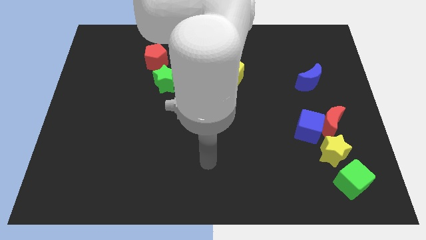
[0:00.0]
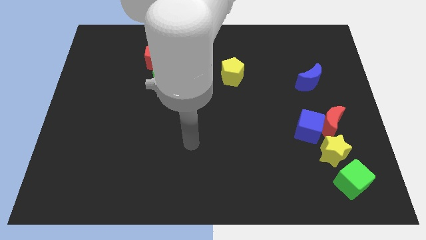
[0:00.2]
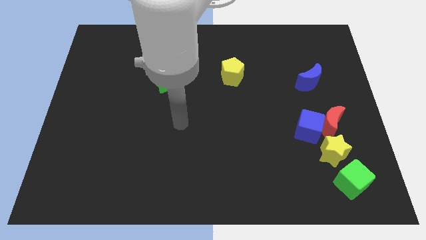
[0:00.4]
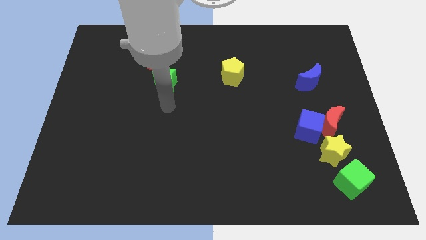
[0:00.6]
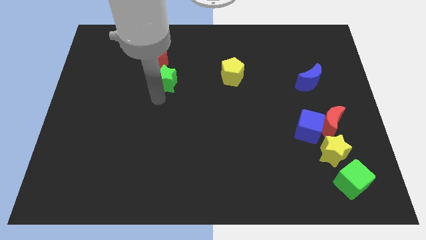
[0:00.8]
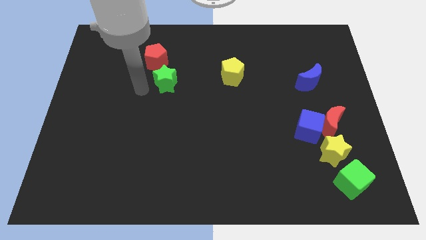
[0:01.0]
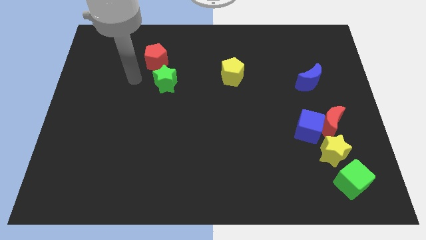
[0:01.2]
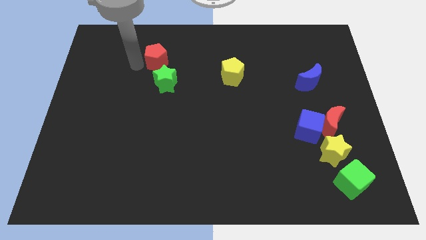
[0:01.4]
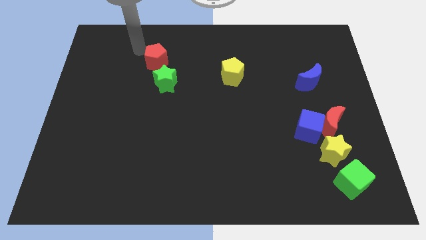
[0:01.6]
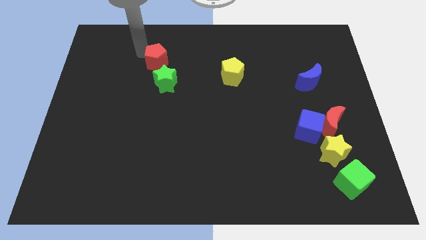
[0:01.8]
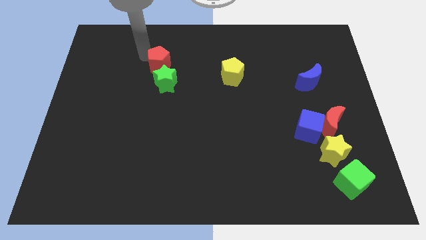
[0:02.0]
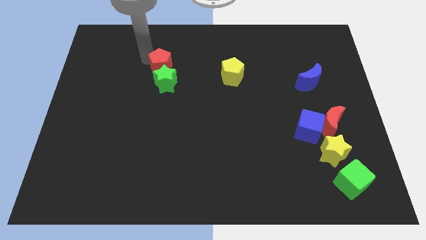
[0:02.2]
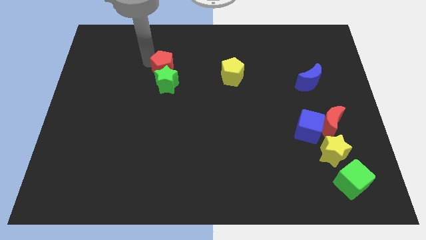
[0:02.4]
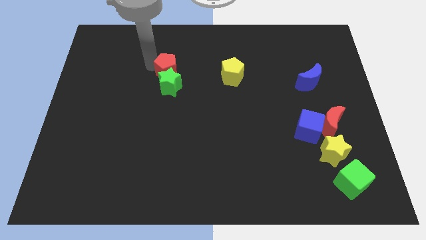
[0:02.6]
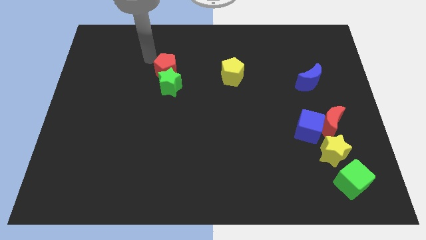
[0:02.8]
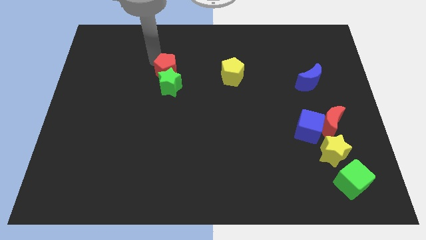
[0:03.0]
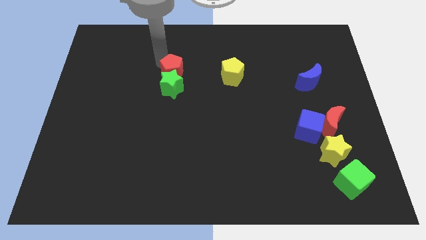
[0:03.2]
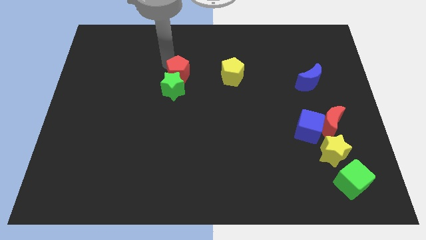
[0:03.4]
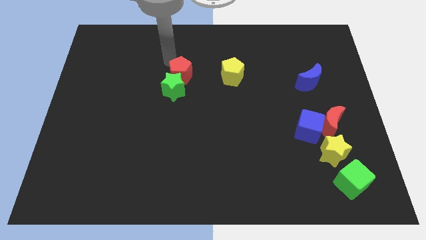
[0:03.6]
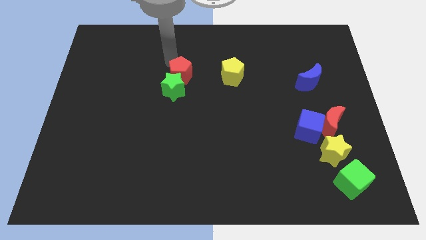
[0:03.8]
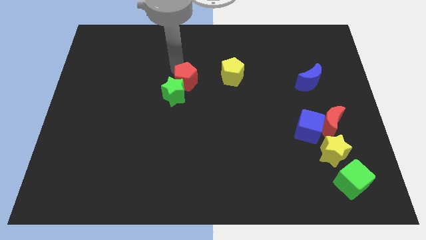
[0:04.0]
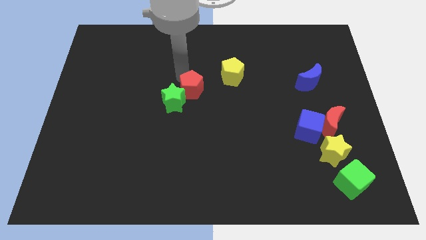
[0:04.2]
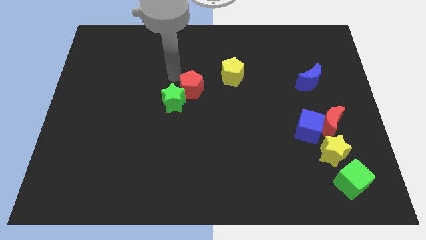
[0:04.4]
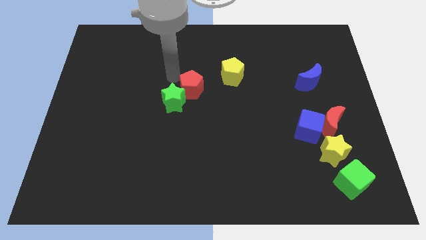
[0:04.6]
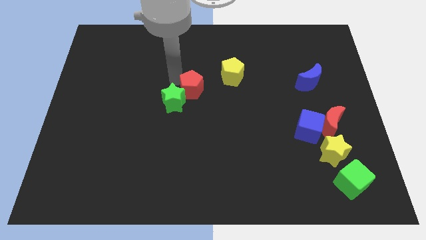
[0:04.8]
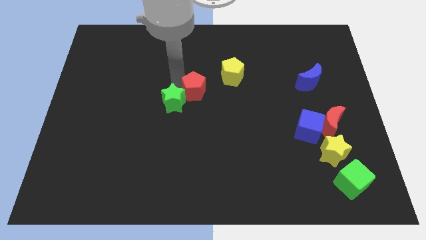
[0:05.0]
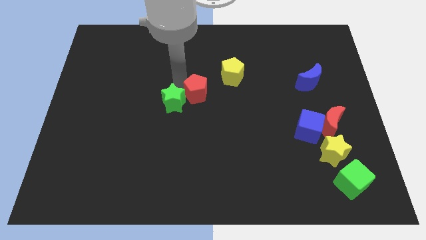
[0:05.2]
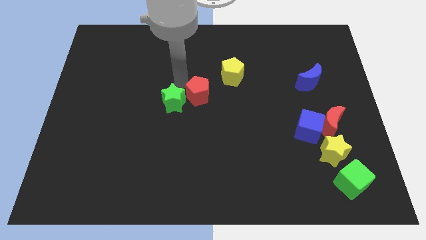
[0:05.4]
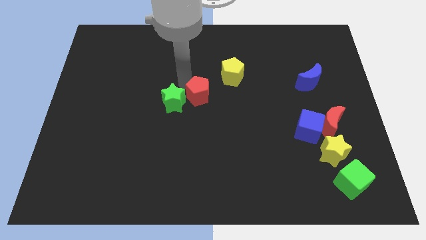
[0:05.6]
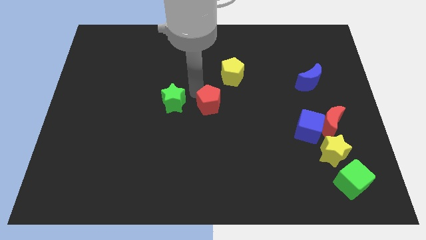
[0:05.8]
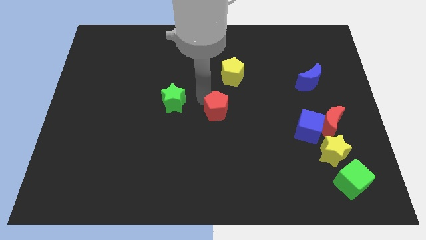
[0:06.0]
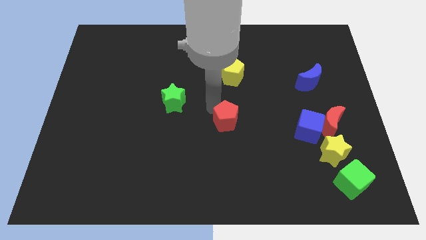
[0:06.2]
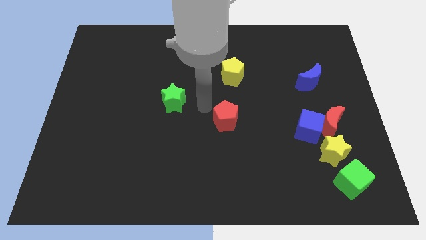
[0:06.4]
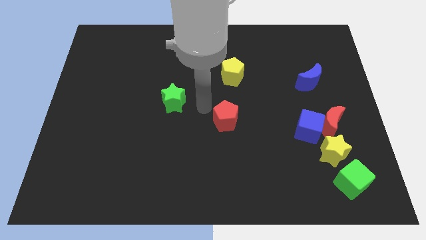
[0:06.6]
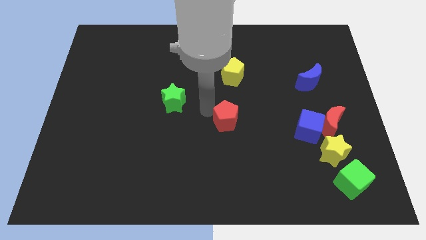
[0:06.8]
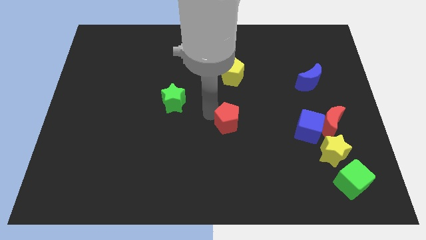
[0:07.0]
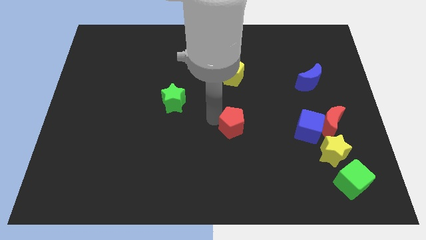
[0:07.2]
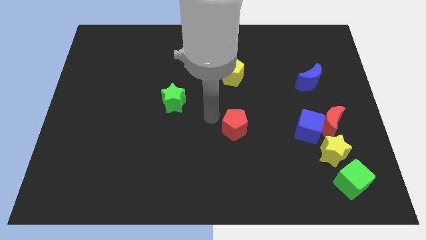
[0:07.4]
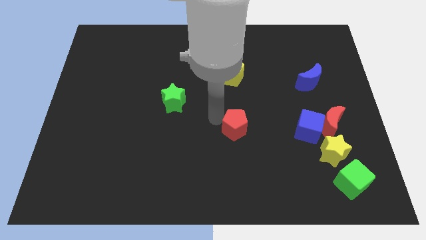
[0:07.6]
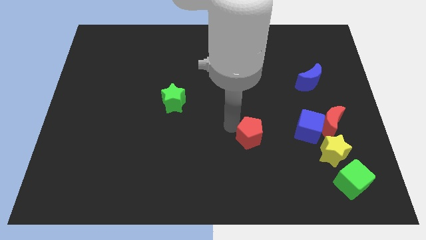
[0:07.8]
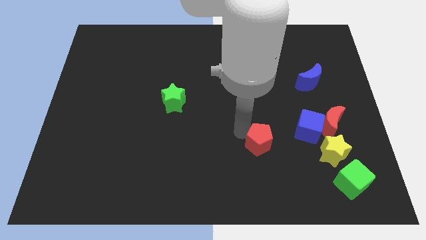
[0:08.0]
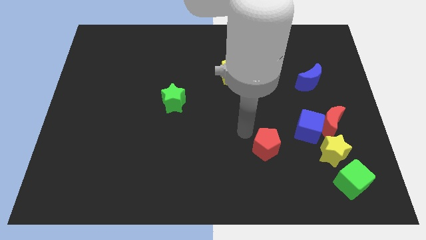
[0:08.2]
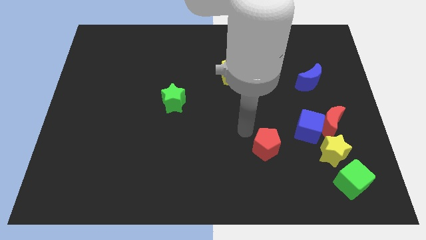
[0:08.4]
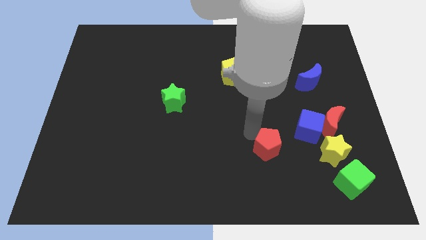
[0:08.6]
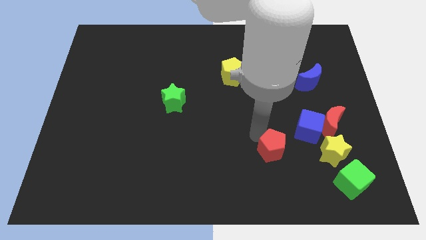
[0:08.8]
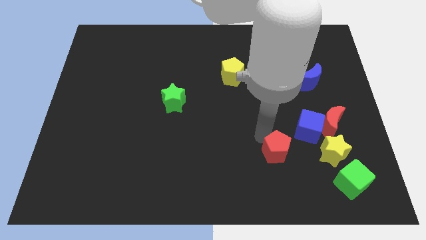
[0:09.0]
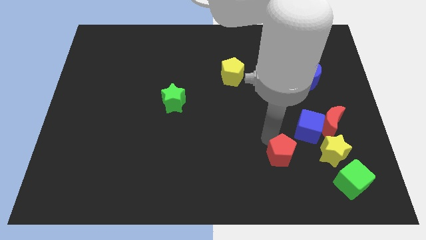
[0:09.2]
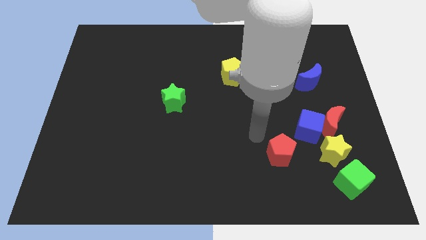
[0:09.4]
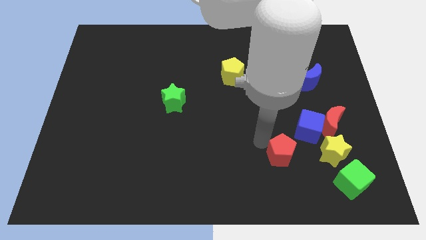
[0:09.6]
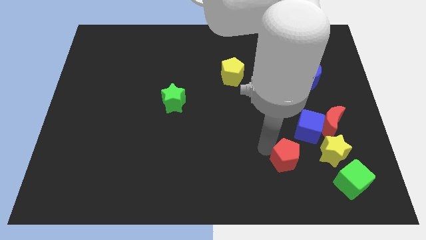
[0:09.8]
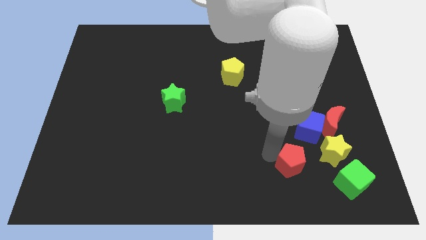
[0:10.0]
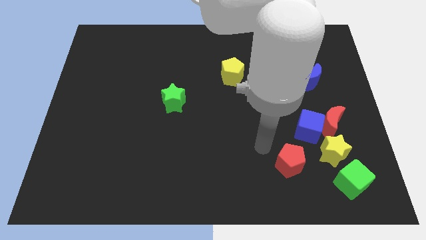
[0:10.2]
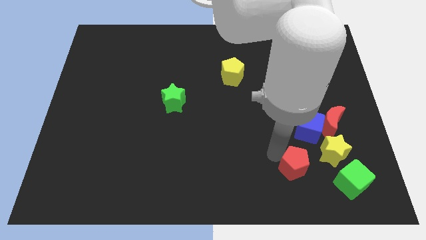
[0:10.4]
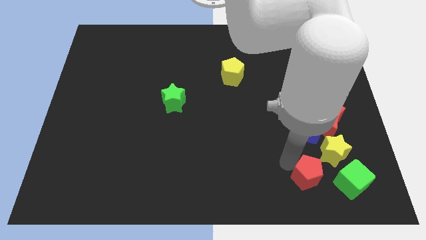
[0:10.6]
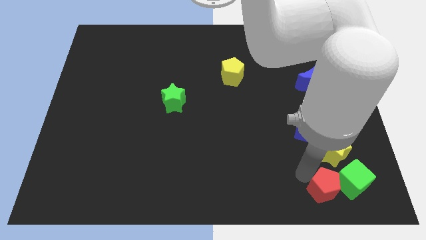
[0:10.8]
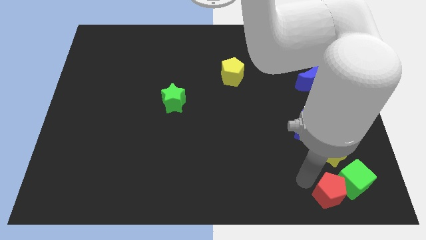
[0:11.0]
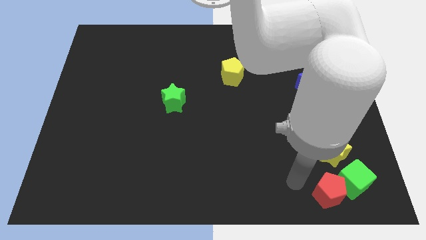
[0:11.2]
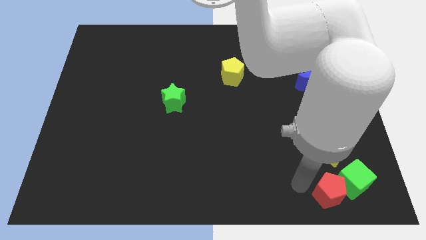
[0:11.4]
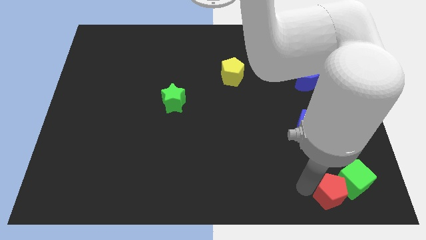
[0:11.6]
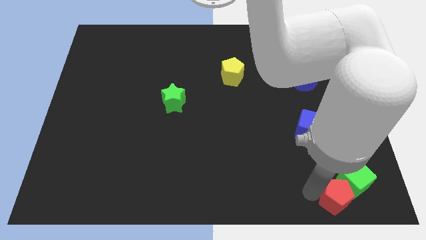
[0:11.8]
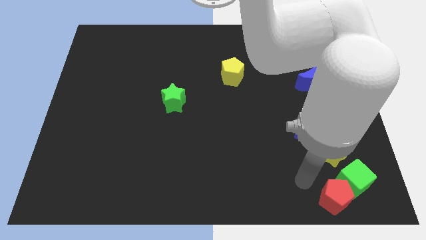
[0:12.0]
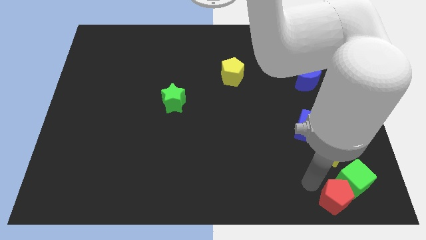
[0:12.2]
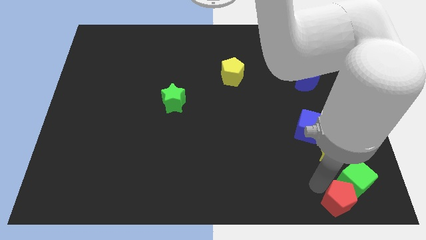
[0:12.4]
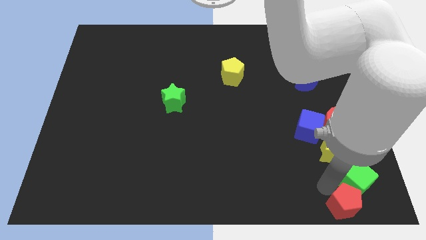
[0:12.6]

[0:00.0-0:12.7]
put the red pentagon to the bottom right corner

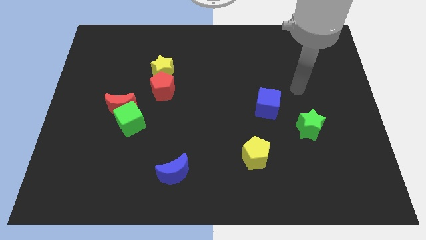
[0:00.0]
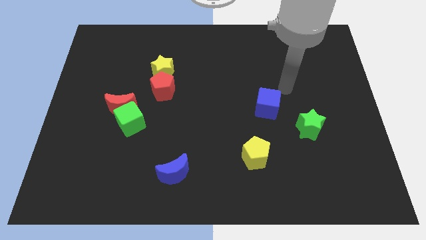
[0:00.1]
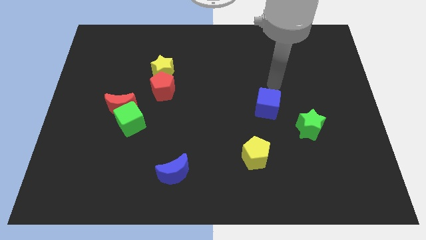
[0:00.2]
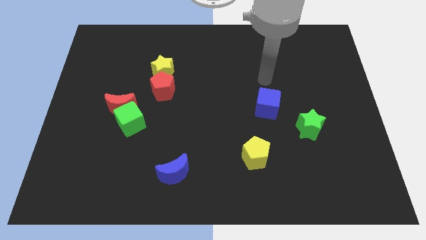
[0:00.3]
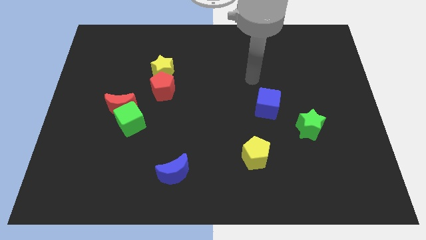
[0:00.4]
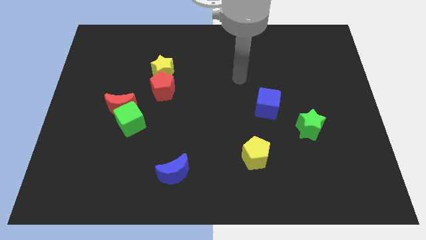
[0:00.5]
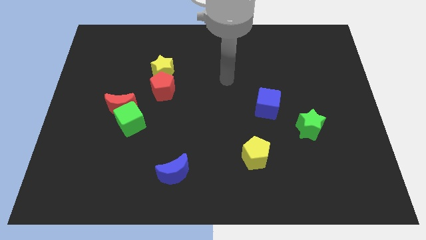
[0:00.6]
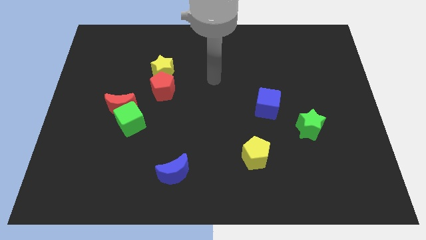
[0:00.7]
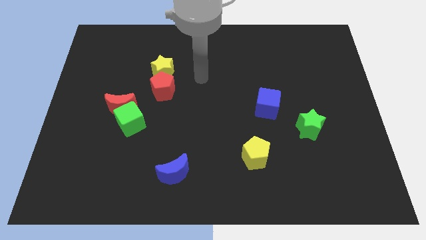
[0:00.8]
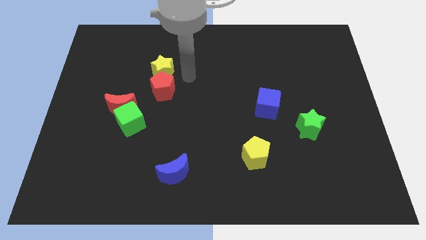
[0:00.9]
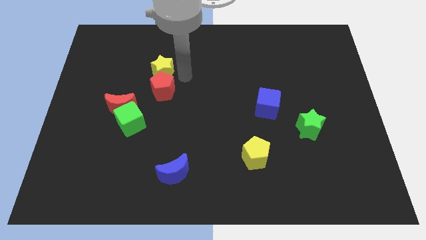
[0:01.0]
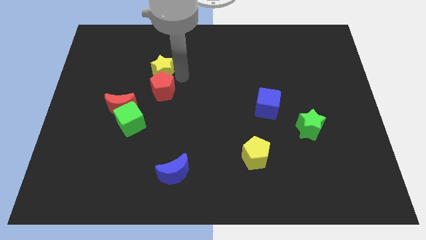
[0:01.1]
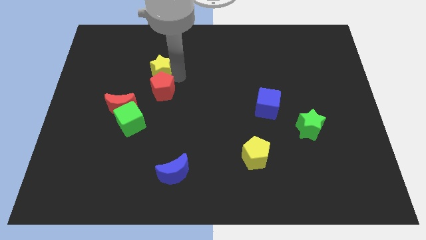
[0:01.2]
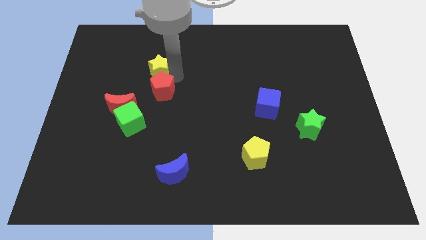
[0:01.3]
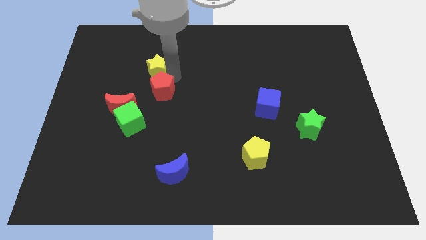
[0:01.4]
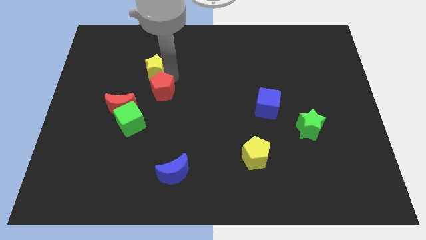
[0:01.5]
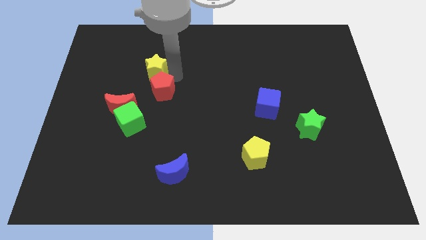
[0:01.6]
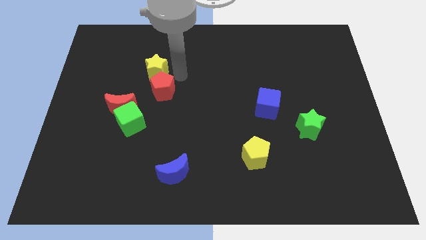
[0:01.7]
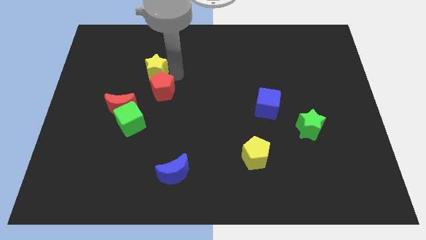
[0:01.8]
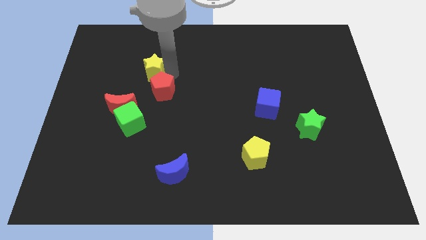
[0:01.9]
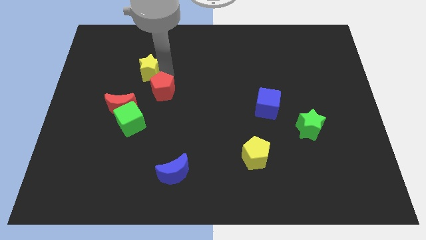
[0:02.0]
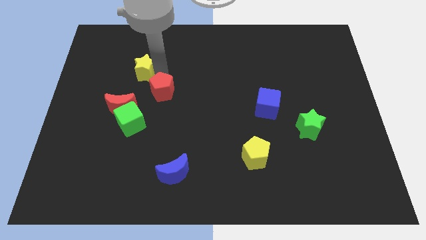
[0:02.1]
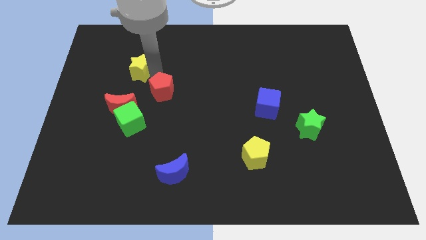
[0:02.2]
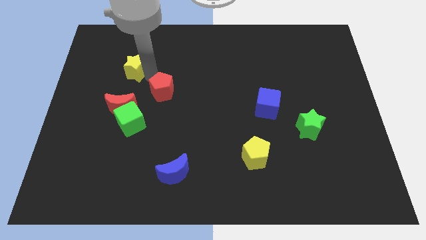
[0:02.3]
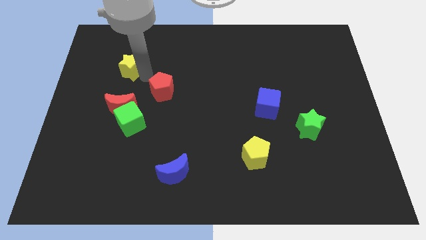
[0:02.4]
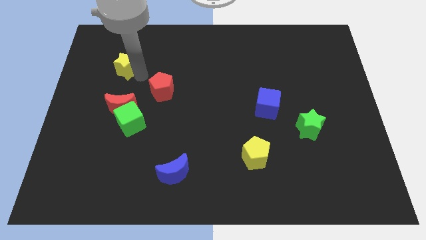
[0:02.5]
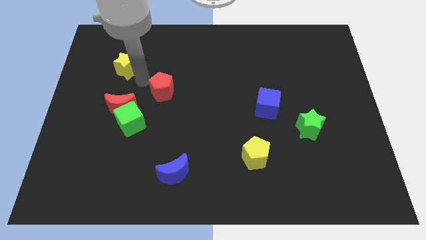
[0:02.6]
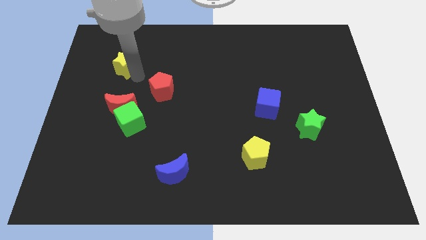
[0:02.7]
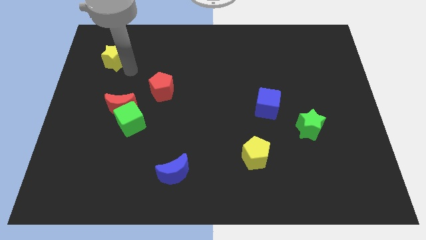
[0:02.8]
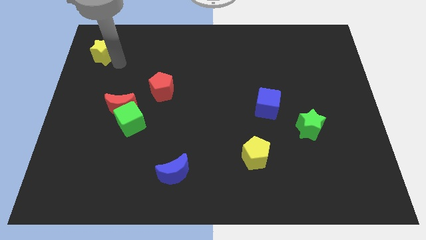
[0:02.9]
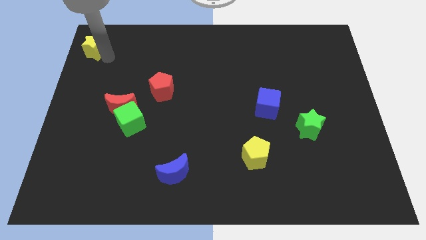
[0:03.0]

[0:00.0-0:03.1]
put the yellow star to the upper left corner
